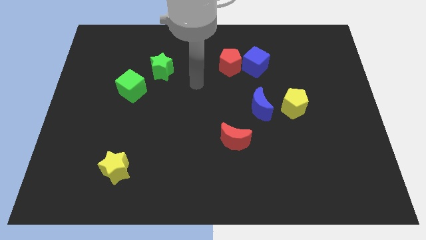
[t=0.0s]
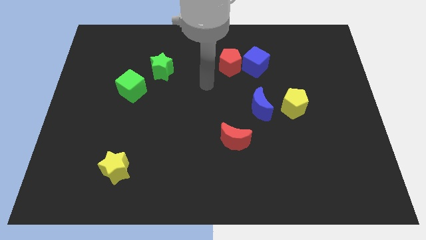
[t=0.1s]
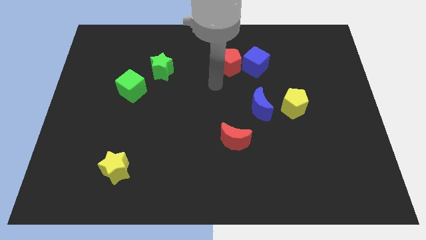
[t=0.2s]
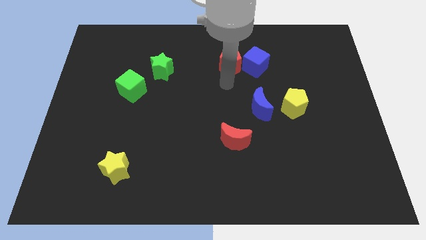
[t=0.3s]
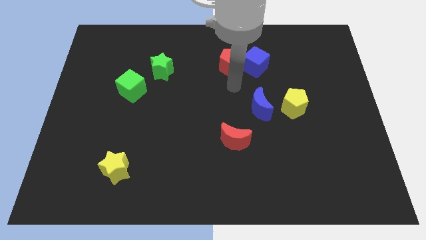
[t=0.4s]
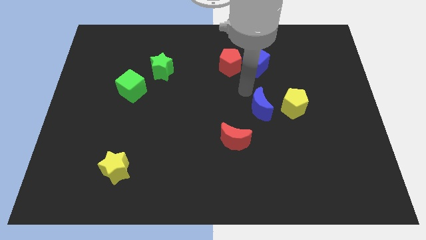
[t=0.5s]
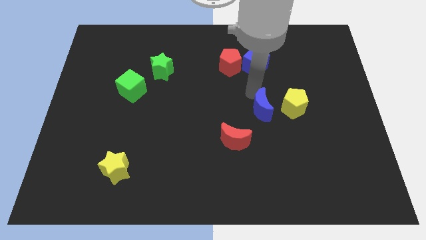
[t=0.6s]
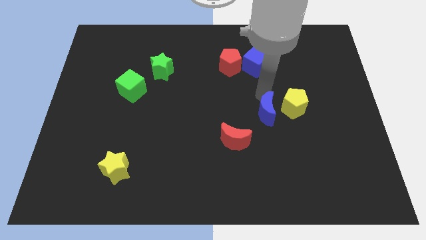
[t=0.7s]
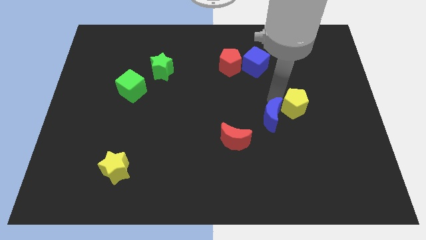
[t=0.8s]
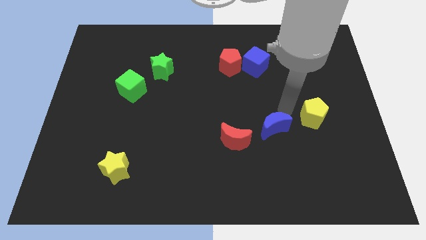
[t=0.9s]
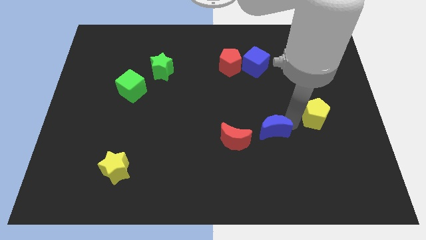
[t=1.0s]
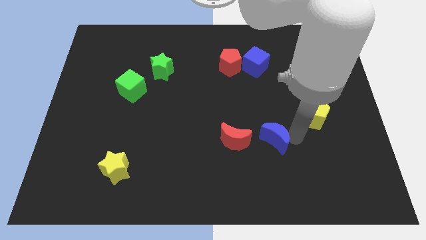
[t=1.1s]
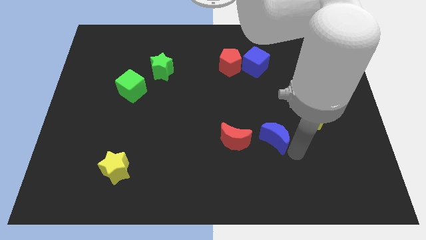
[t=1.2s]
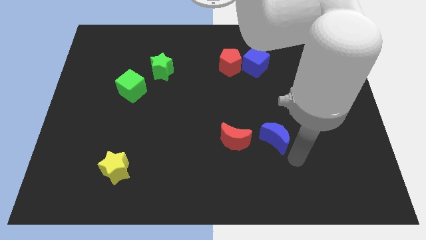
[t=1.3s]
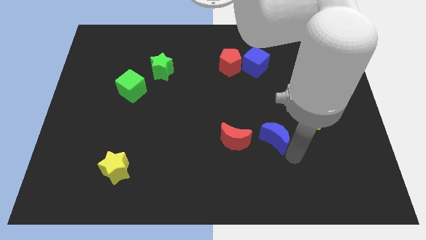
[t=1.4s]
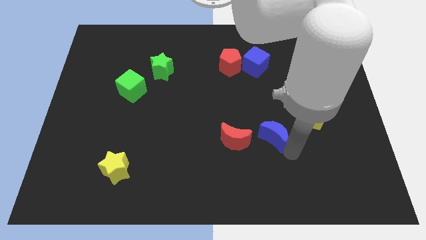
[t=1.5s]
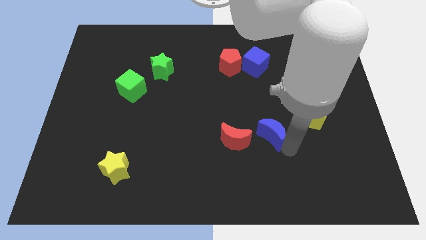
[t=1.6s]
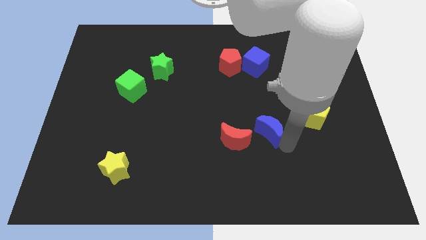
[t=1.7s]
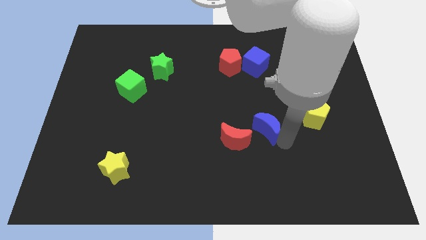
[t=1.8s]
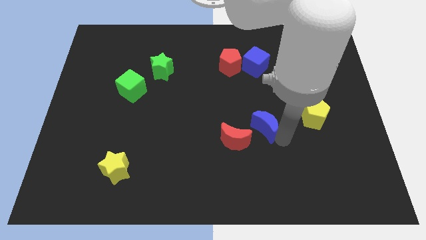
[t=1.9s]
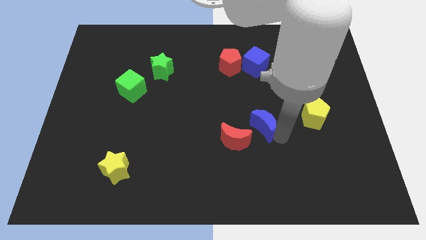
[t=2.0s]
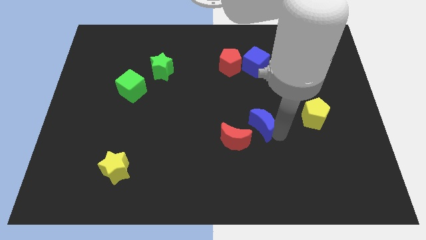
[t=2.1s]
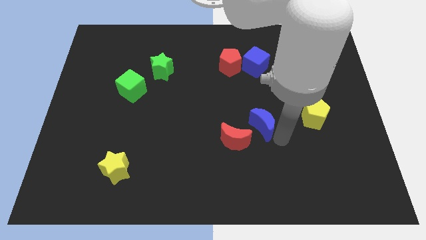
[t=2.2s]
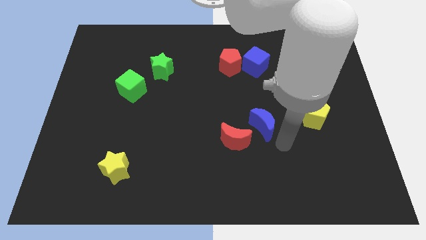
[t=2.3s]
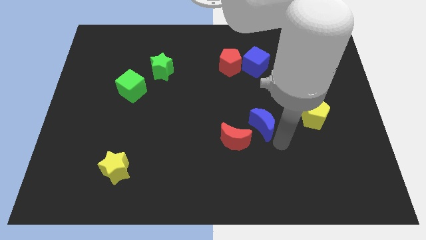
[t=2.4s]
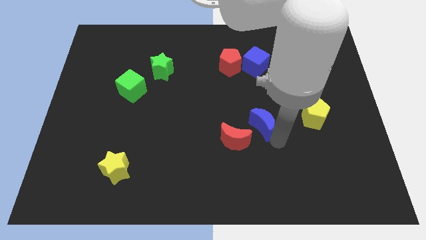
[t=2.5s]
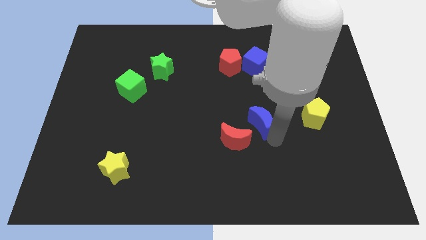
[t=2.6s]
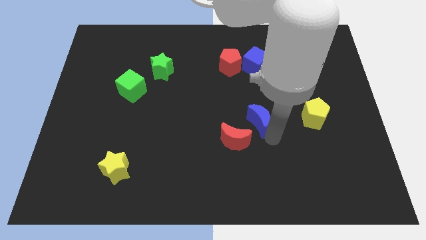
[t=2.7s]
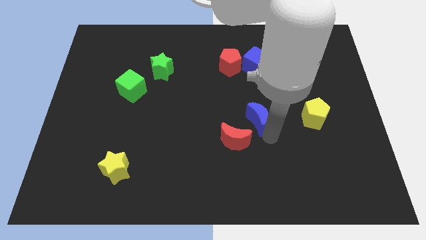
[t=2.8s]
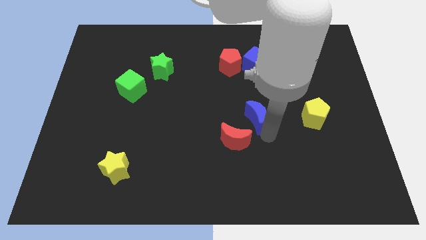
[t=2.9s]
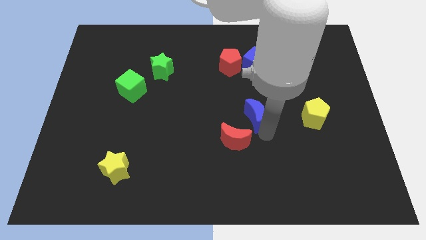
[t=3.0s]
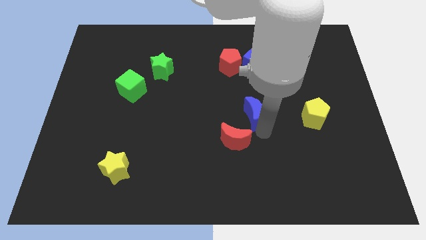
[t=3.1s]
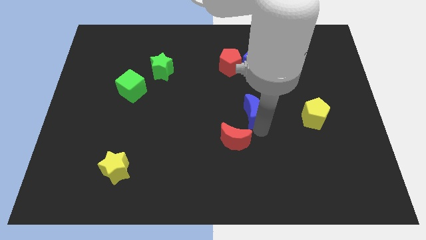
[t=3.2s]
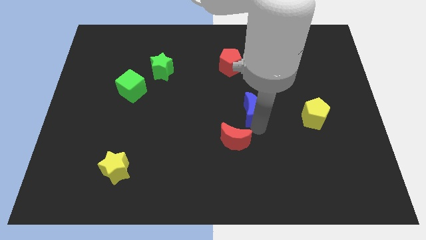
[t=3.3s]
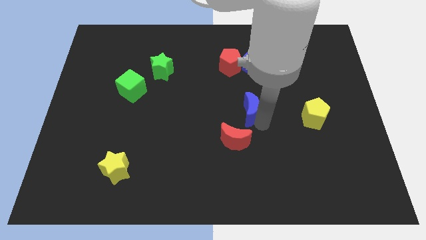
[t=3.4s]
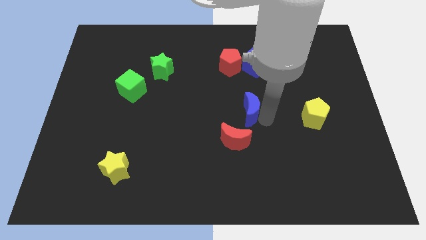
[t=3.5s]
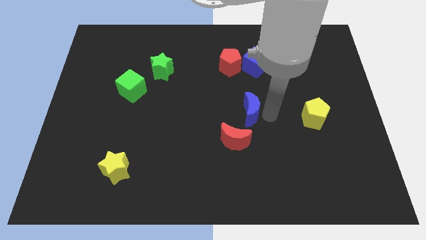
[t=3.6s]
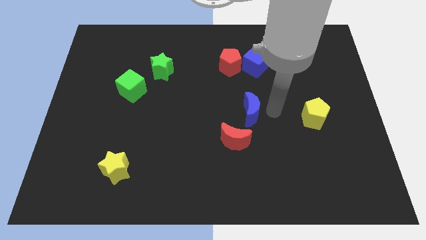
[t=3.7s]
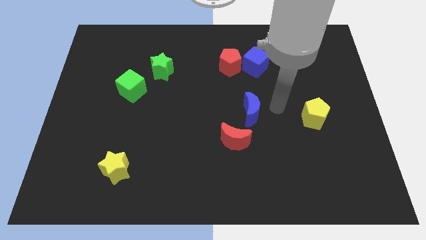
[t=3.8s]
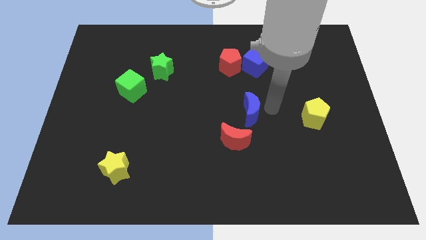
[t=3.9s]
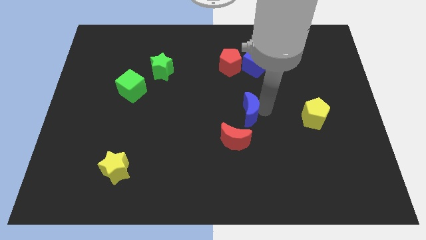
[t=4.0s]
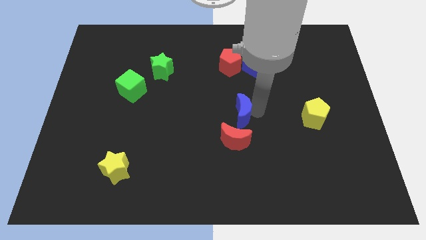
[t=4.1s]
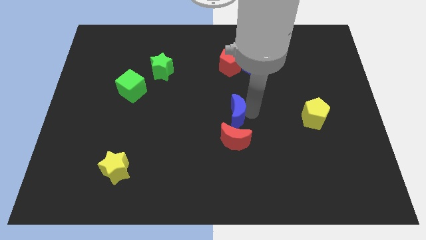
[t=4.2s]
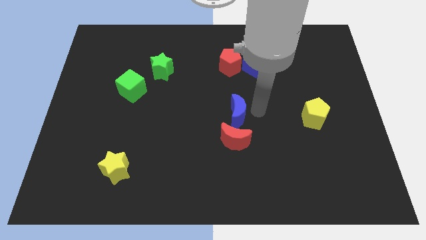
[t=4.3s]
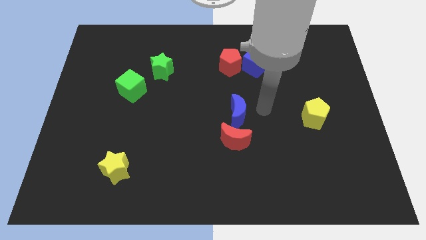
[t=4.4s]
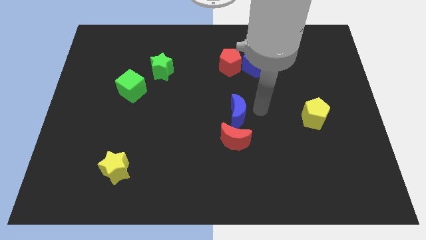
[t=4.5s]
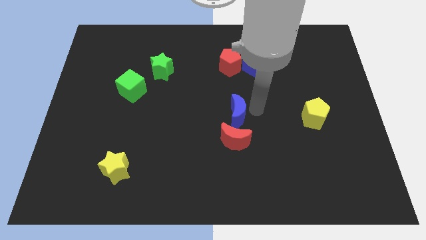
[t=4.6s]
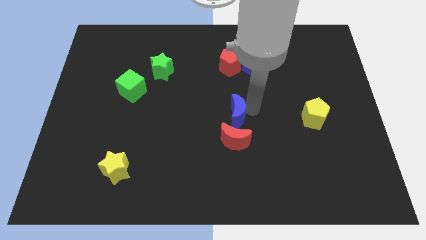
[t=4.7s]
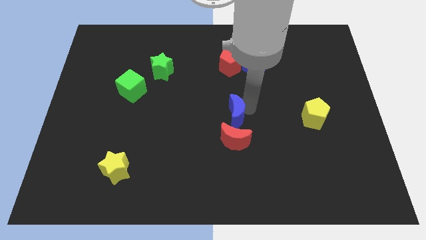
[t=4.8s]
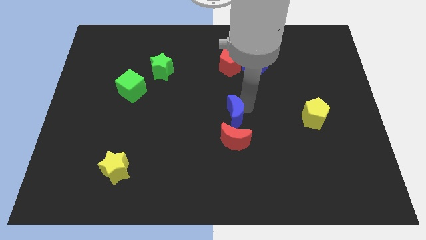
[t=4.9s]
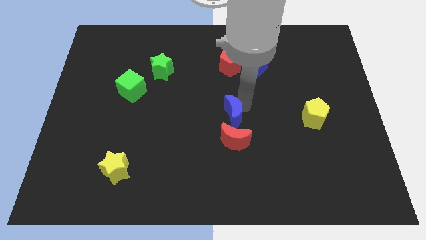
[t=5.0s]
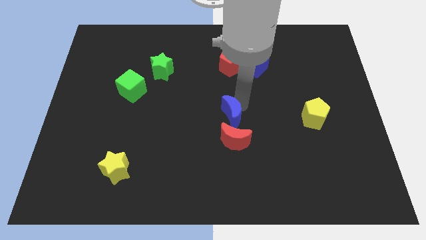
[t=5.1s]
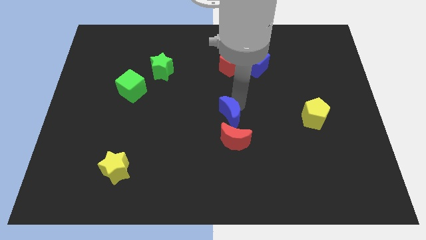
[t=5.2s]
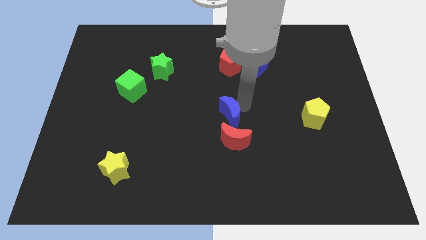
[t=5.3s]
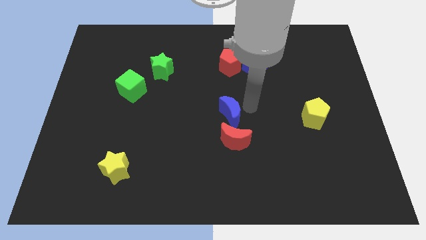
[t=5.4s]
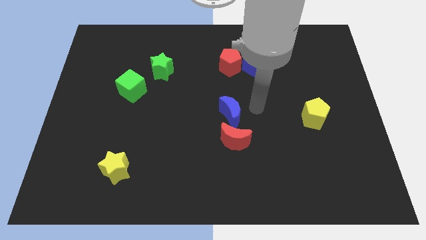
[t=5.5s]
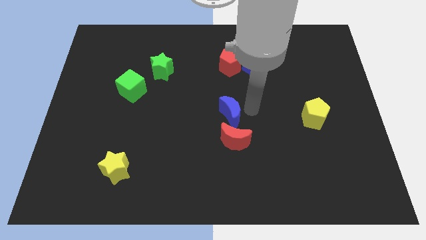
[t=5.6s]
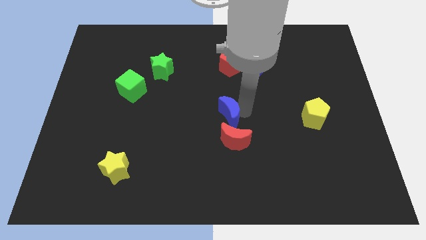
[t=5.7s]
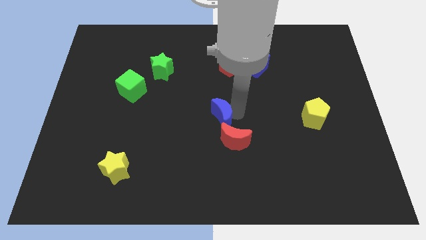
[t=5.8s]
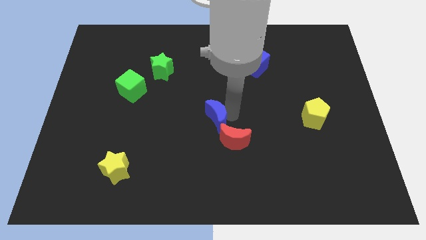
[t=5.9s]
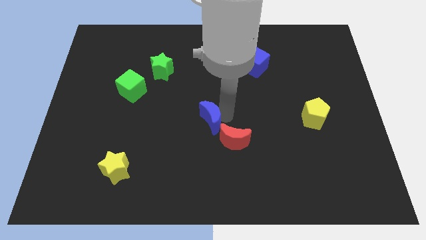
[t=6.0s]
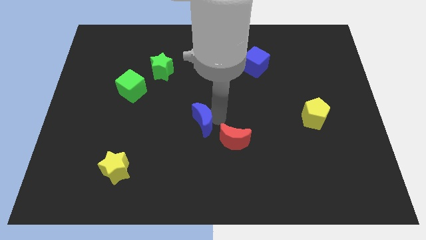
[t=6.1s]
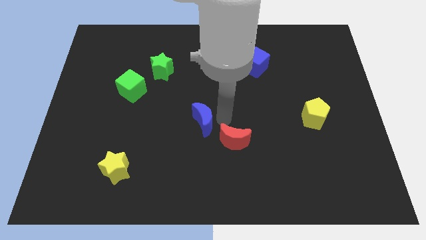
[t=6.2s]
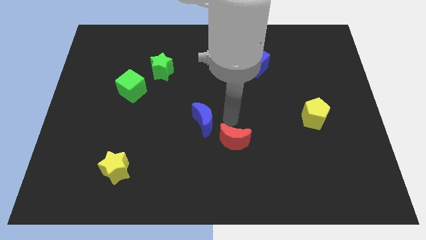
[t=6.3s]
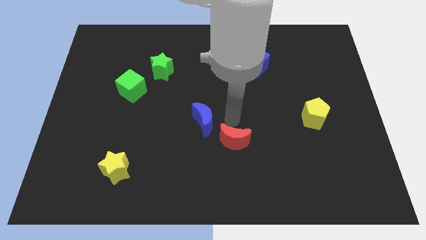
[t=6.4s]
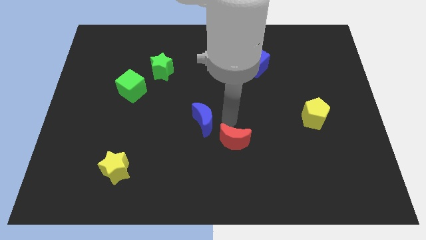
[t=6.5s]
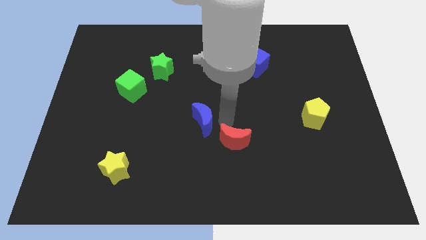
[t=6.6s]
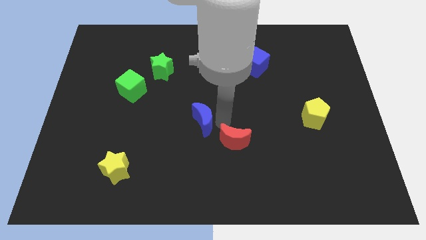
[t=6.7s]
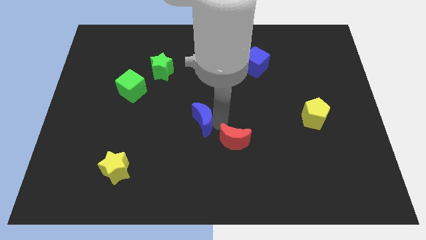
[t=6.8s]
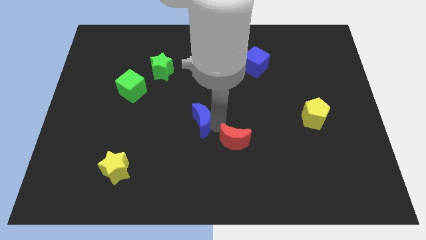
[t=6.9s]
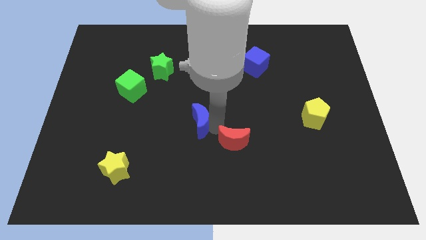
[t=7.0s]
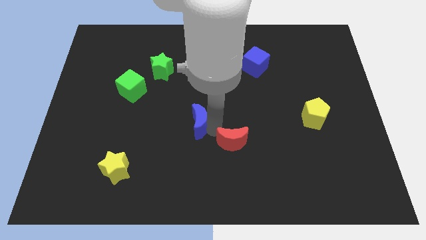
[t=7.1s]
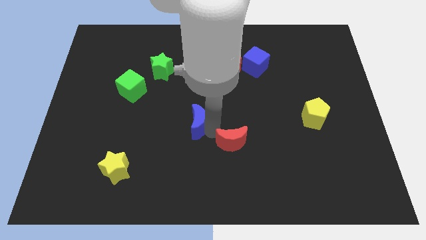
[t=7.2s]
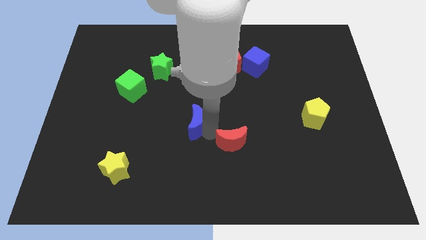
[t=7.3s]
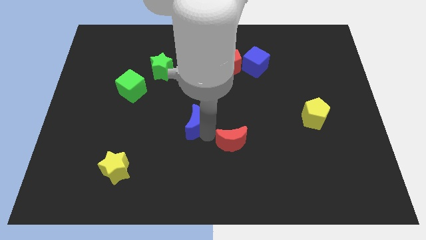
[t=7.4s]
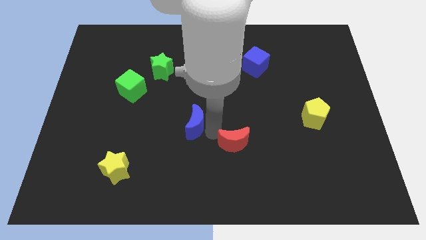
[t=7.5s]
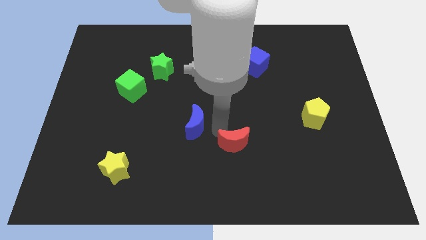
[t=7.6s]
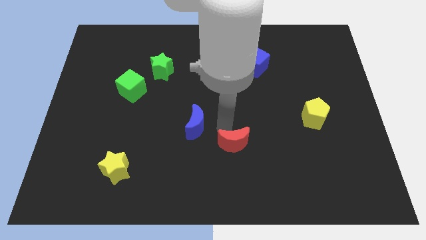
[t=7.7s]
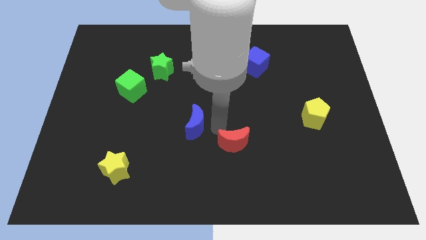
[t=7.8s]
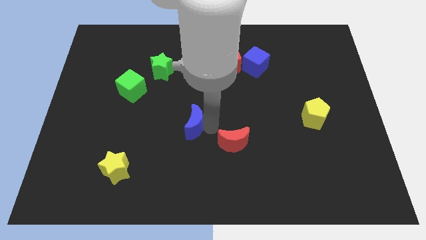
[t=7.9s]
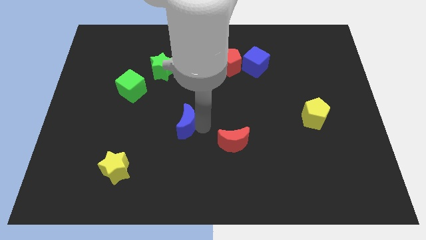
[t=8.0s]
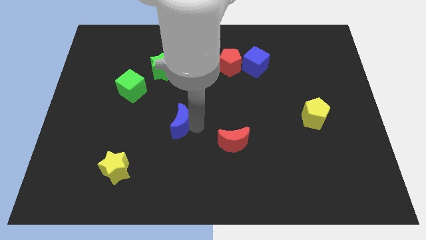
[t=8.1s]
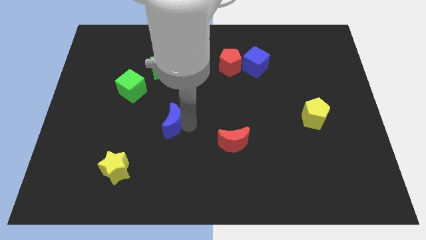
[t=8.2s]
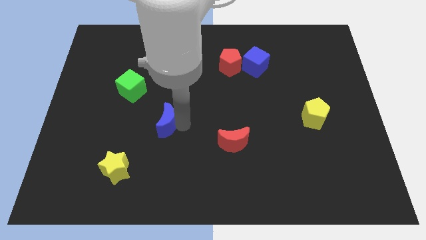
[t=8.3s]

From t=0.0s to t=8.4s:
slide the blue moon left
